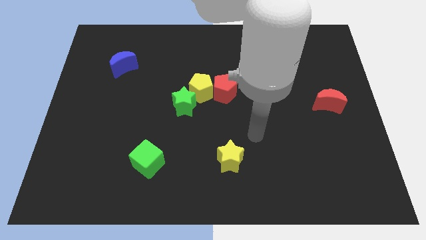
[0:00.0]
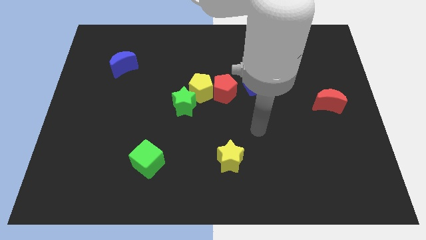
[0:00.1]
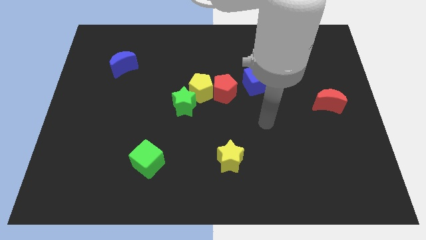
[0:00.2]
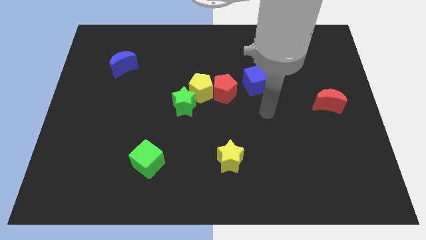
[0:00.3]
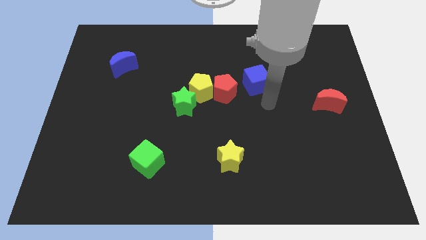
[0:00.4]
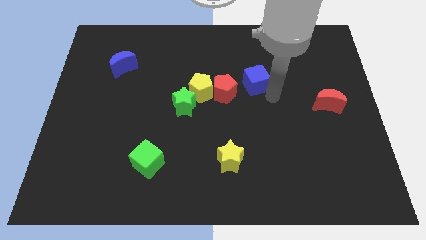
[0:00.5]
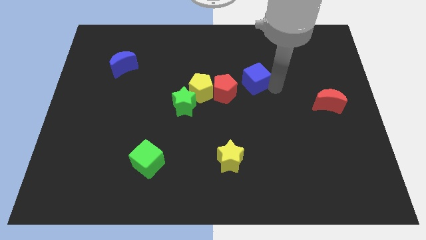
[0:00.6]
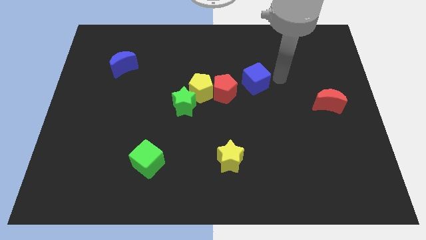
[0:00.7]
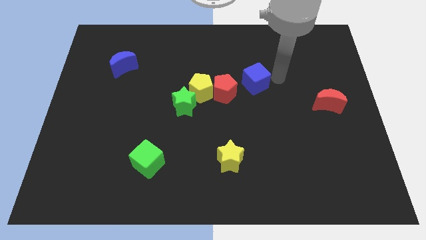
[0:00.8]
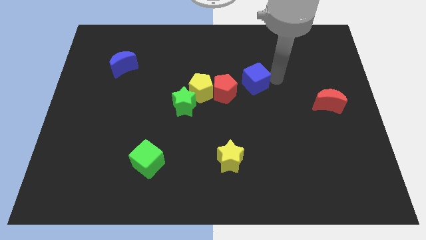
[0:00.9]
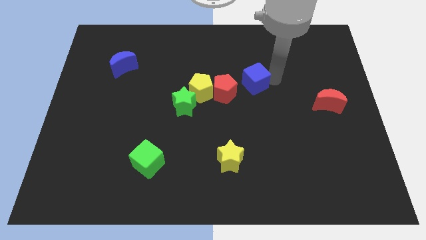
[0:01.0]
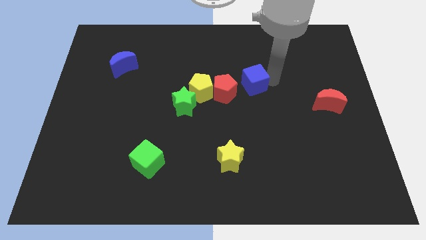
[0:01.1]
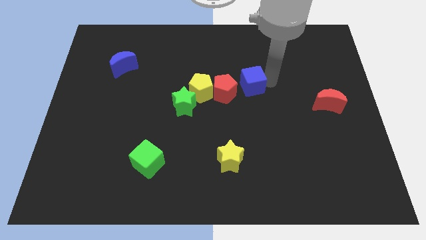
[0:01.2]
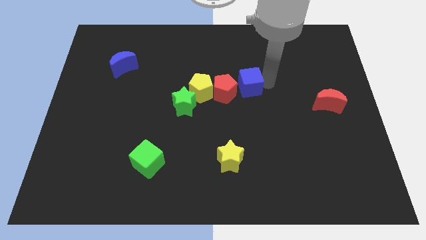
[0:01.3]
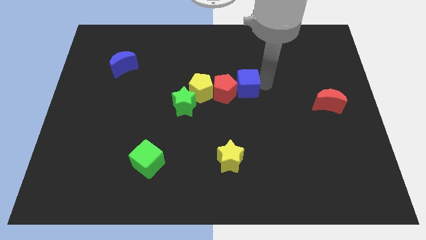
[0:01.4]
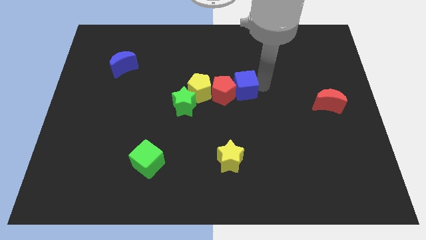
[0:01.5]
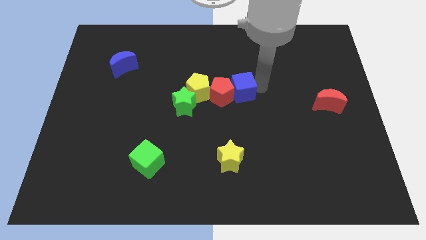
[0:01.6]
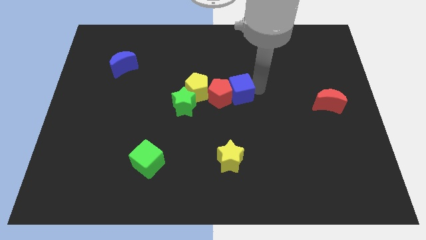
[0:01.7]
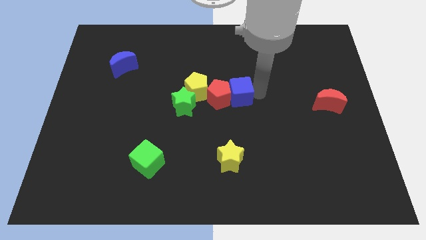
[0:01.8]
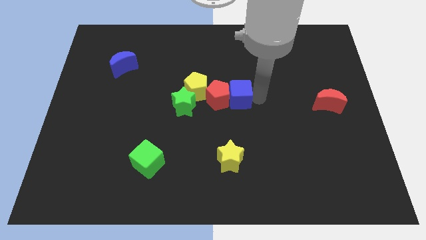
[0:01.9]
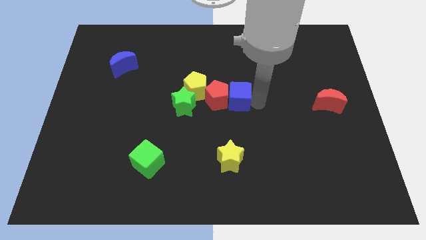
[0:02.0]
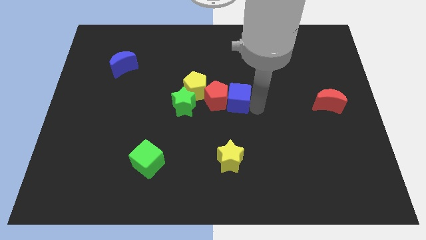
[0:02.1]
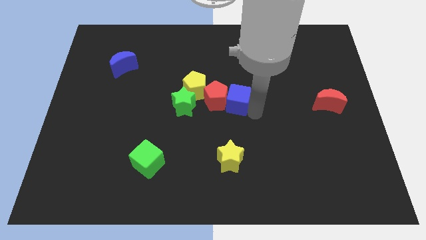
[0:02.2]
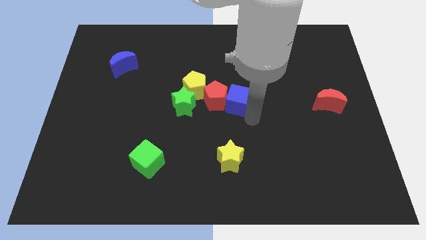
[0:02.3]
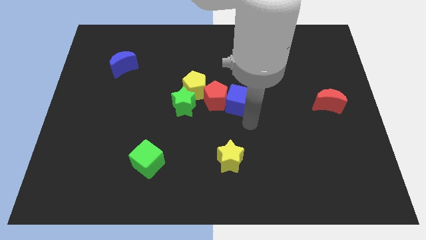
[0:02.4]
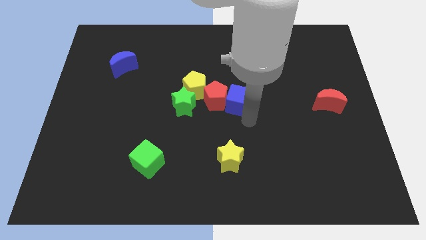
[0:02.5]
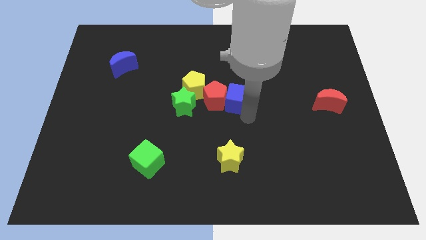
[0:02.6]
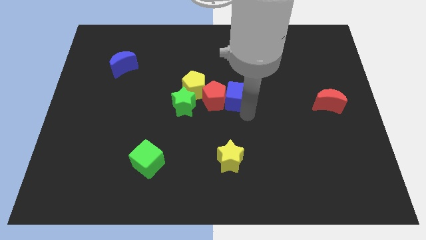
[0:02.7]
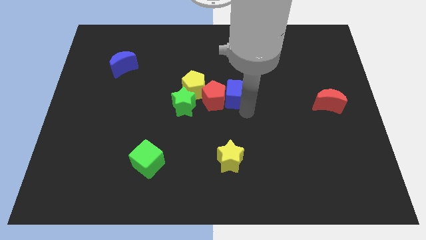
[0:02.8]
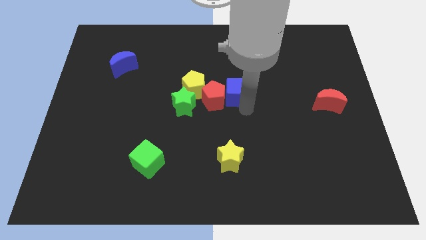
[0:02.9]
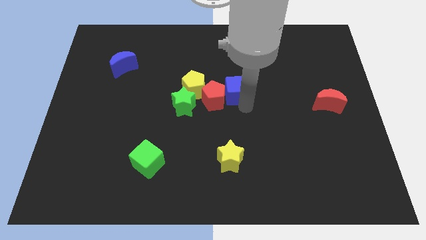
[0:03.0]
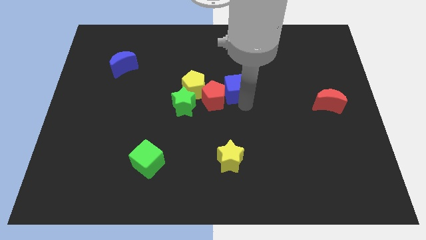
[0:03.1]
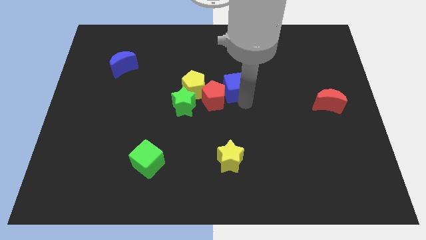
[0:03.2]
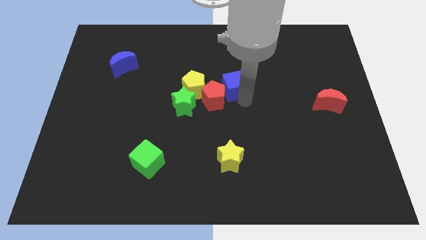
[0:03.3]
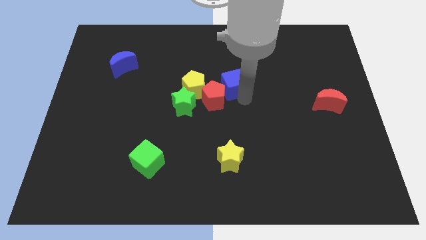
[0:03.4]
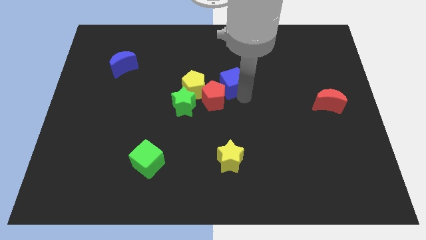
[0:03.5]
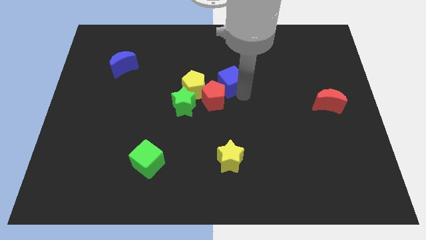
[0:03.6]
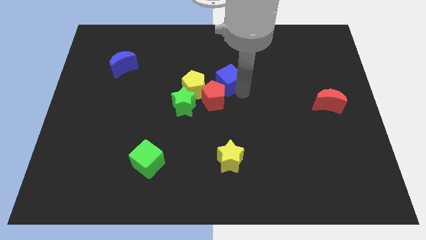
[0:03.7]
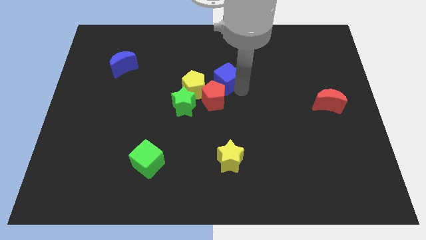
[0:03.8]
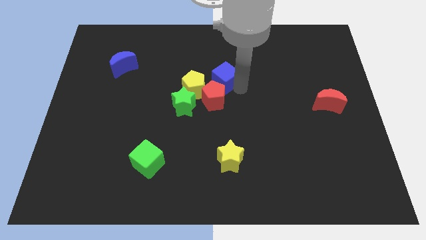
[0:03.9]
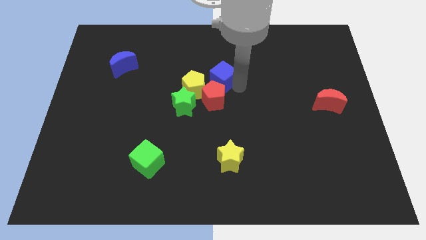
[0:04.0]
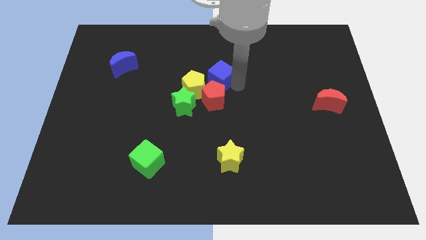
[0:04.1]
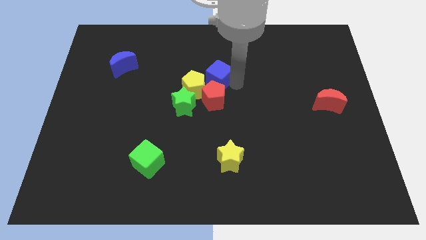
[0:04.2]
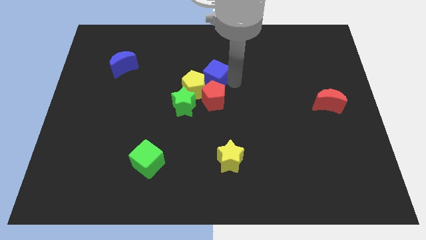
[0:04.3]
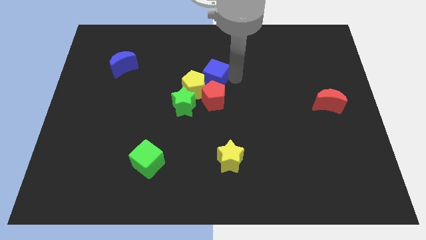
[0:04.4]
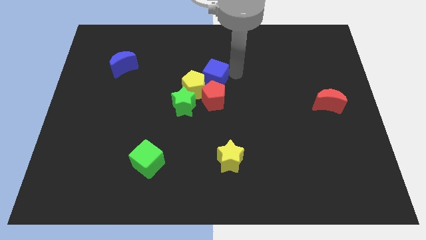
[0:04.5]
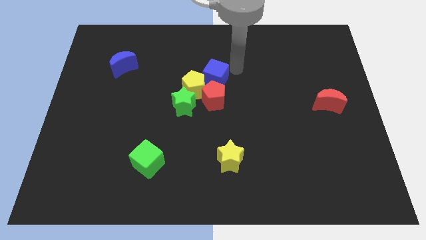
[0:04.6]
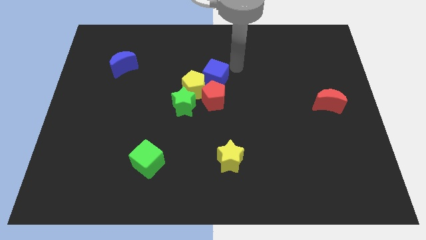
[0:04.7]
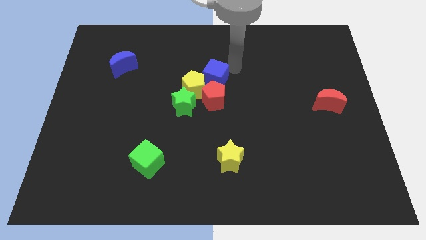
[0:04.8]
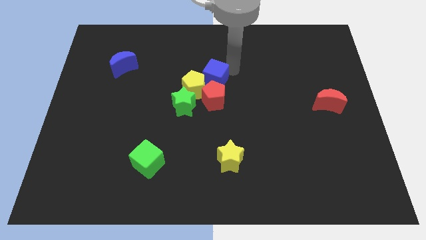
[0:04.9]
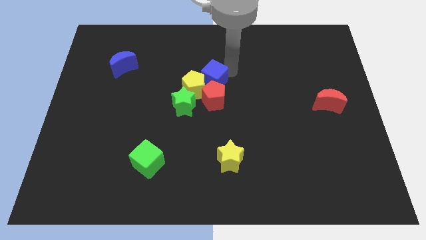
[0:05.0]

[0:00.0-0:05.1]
move the blue cube close to the yellow pentagon

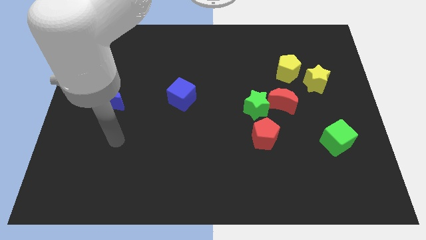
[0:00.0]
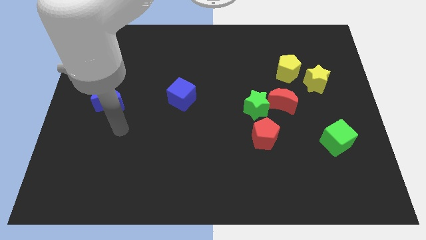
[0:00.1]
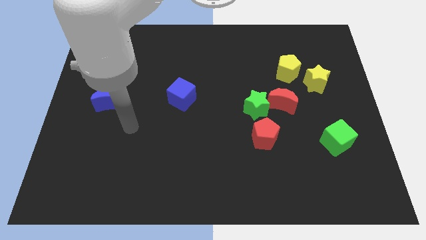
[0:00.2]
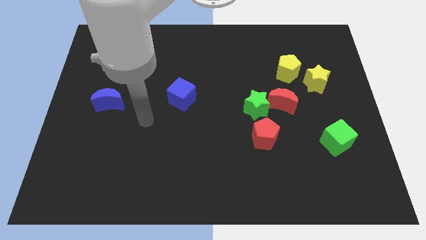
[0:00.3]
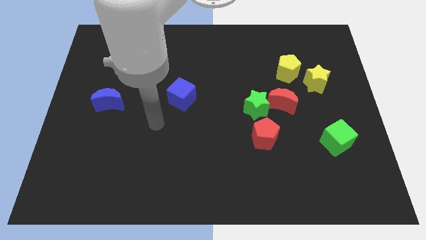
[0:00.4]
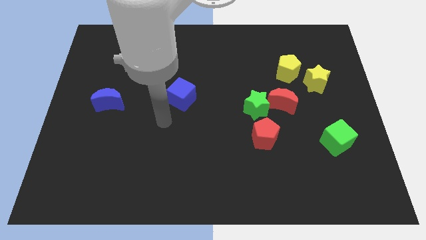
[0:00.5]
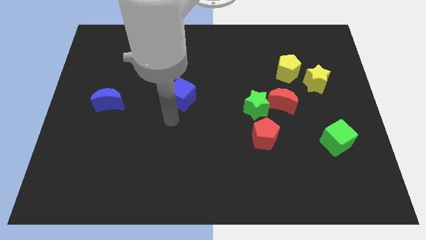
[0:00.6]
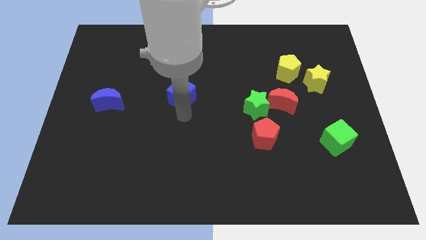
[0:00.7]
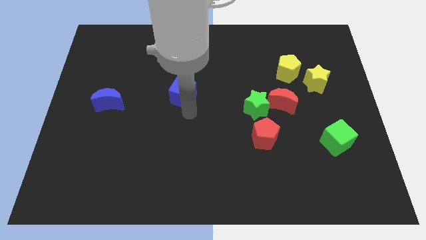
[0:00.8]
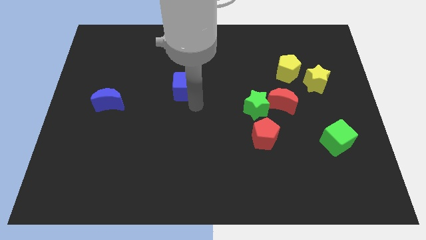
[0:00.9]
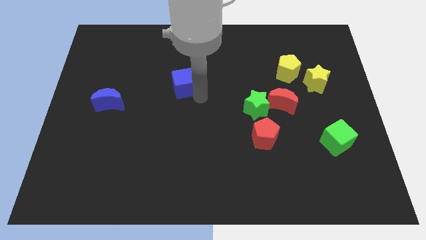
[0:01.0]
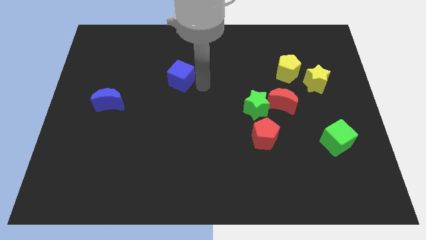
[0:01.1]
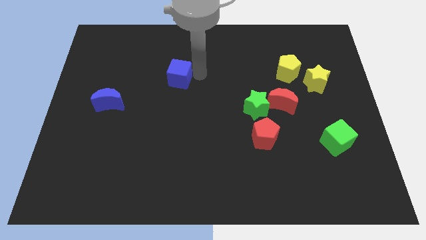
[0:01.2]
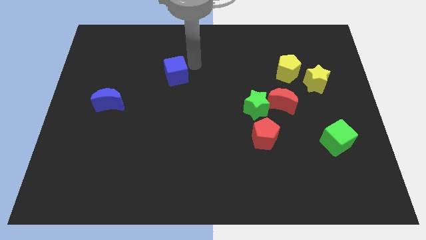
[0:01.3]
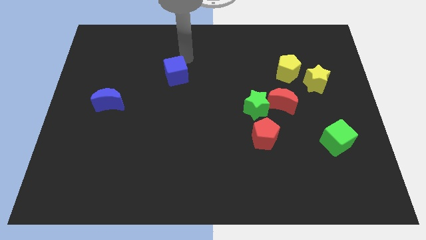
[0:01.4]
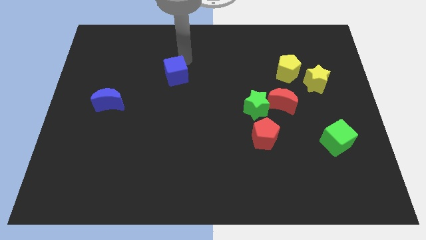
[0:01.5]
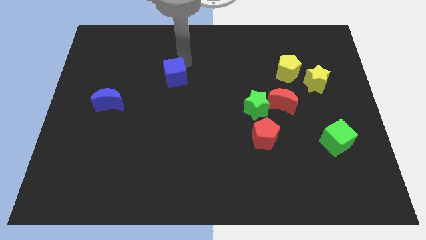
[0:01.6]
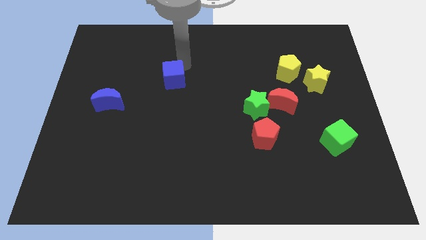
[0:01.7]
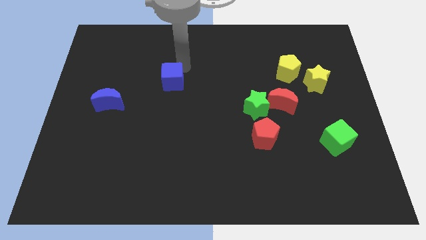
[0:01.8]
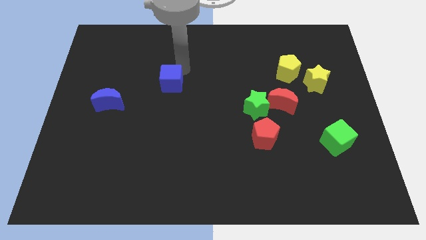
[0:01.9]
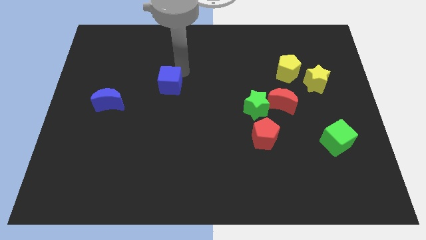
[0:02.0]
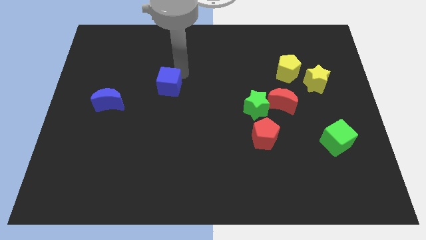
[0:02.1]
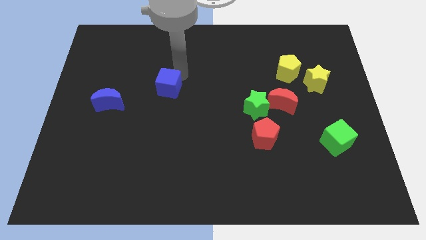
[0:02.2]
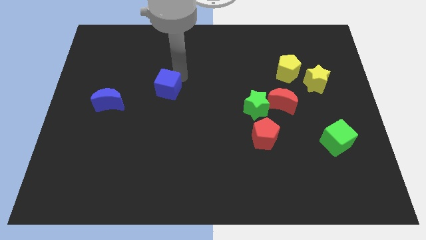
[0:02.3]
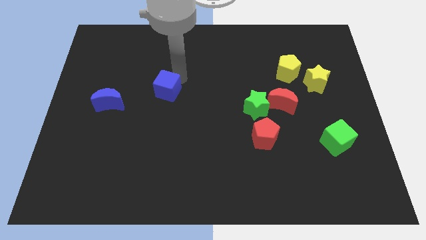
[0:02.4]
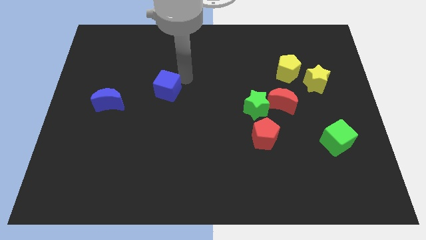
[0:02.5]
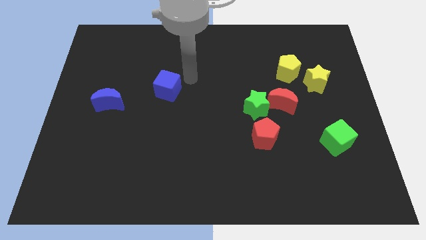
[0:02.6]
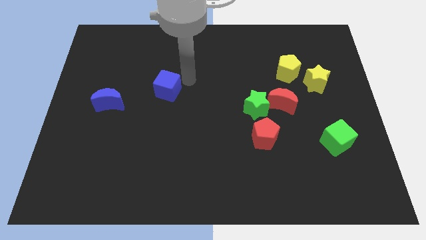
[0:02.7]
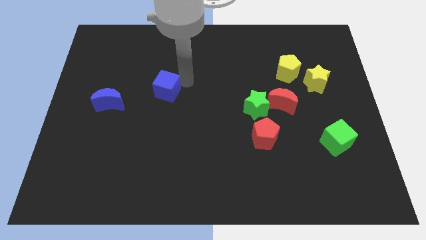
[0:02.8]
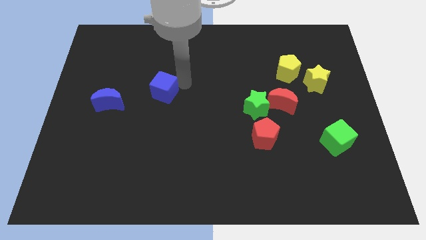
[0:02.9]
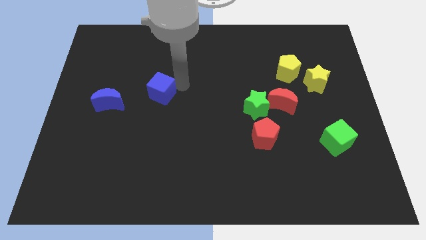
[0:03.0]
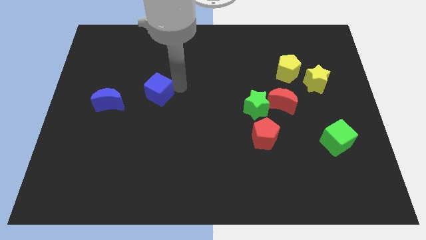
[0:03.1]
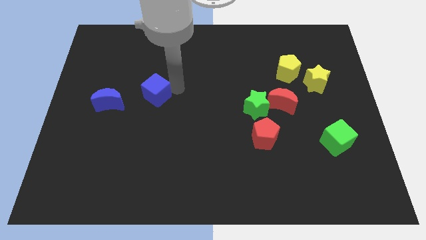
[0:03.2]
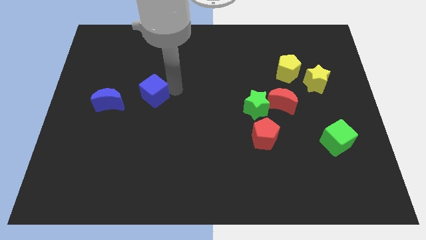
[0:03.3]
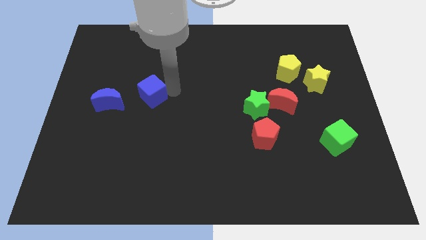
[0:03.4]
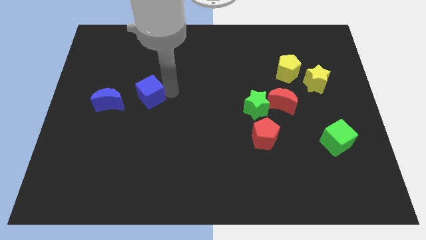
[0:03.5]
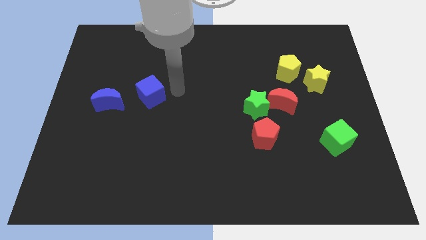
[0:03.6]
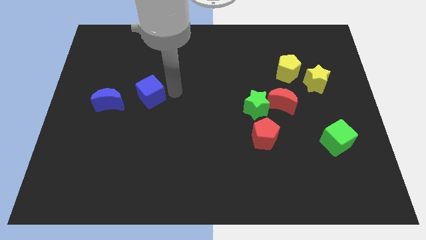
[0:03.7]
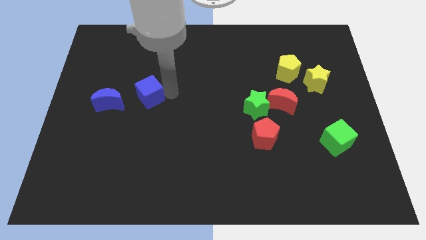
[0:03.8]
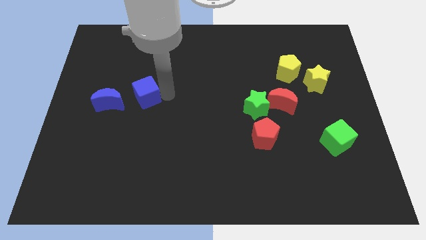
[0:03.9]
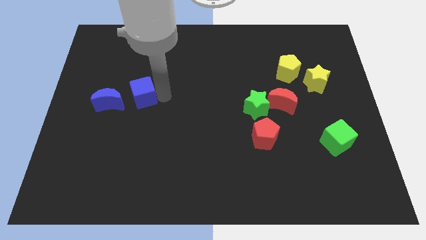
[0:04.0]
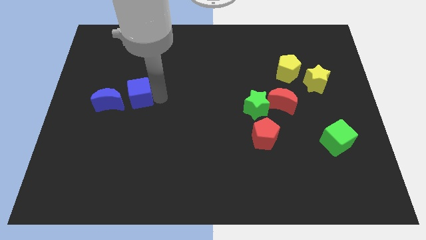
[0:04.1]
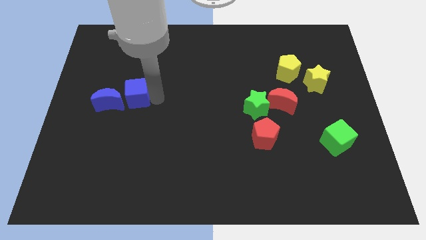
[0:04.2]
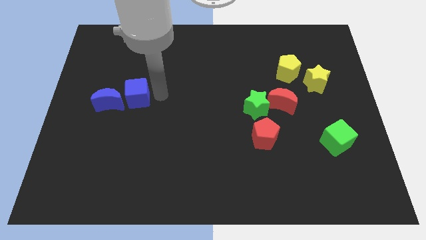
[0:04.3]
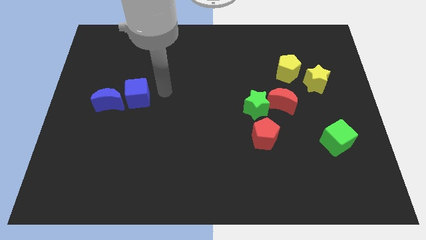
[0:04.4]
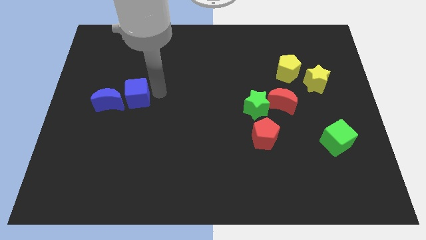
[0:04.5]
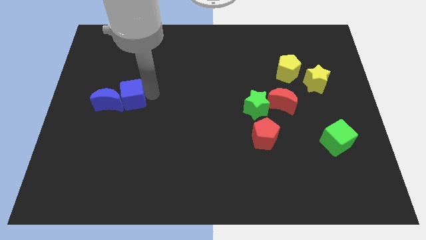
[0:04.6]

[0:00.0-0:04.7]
slide the blue cube next to the blue moon
